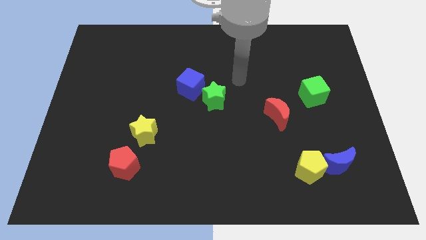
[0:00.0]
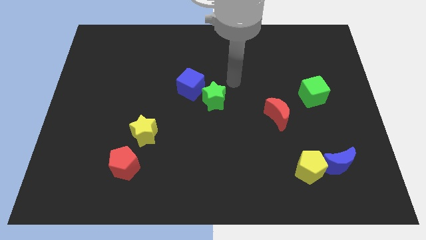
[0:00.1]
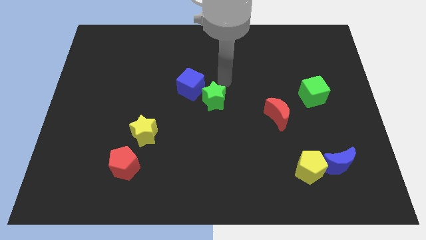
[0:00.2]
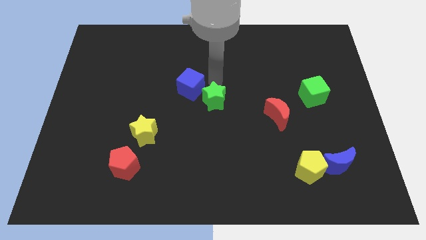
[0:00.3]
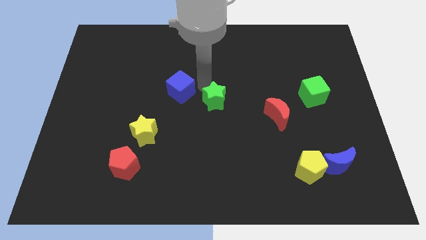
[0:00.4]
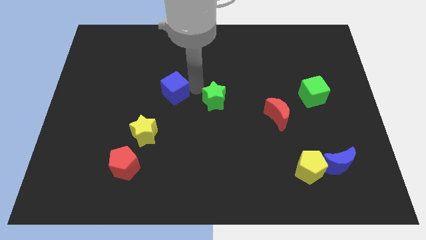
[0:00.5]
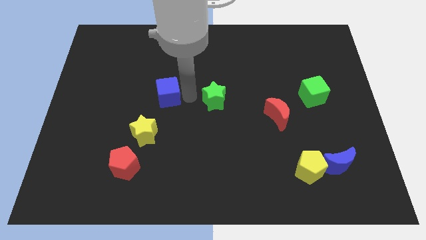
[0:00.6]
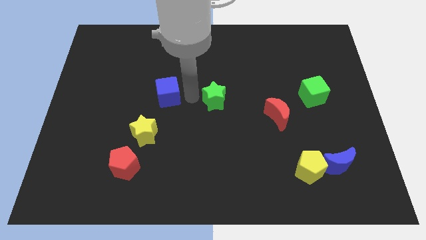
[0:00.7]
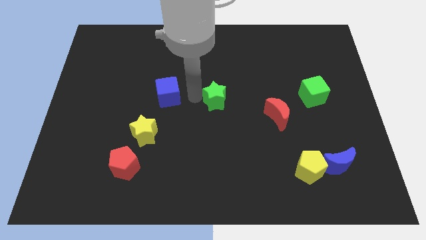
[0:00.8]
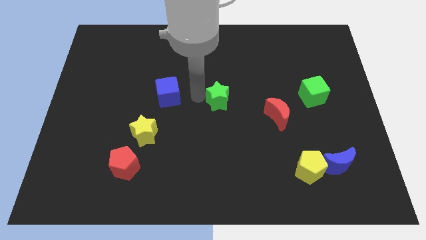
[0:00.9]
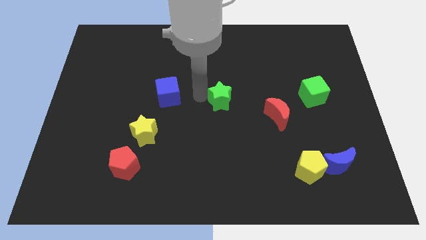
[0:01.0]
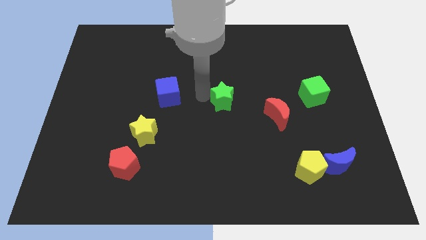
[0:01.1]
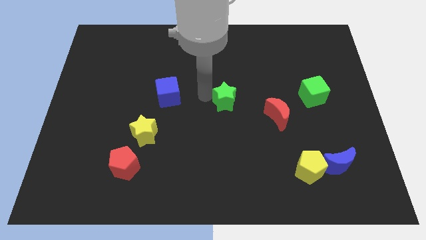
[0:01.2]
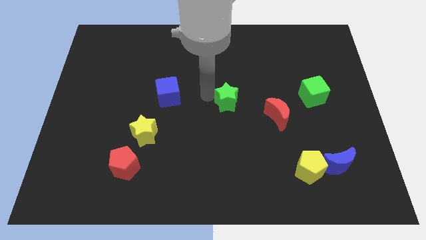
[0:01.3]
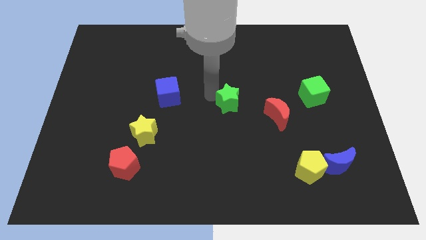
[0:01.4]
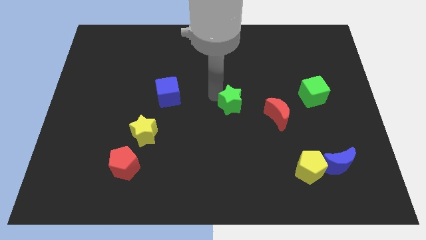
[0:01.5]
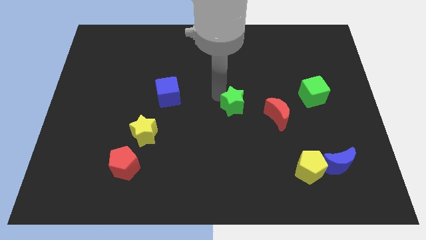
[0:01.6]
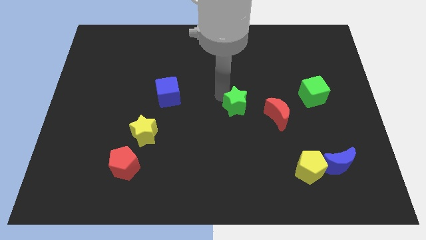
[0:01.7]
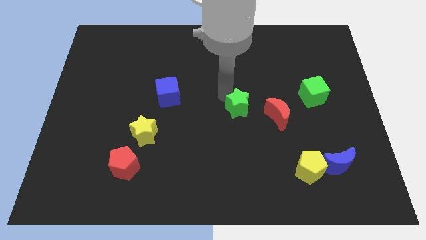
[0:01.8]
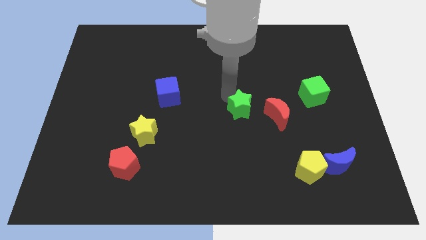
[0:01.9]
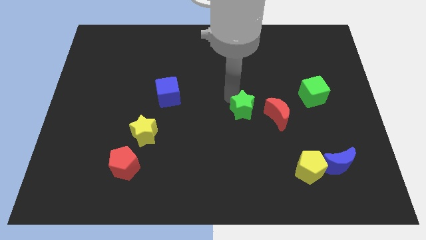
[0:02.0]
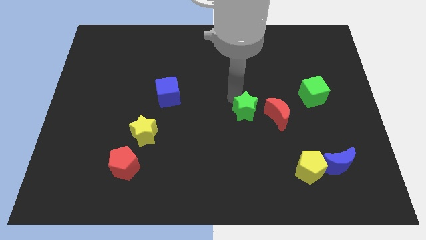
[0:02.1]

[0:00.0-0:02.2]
slightly slide the green star right

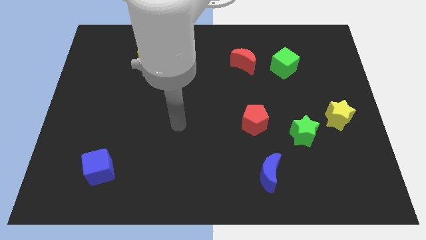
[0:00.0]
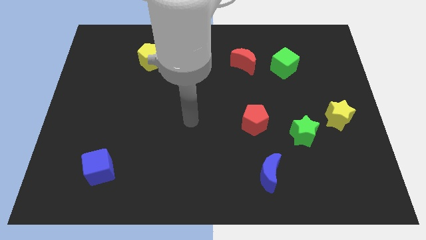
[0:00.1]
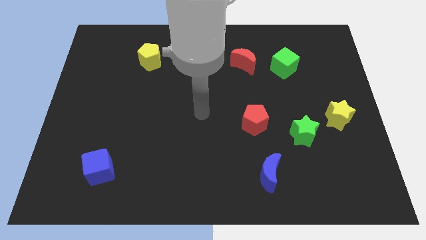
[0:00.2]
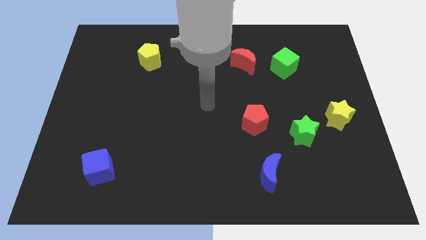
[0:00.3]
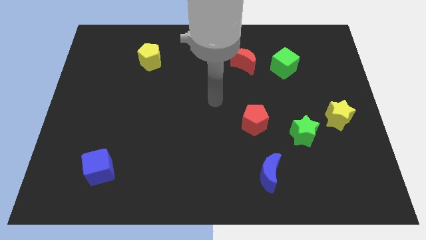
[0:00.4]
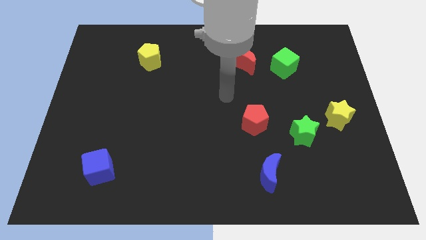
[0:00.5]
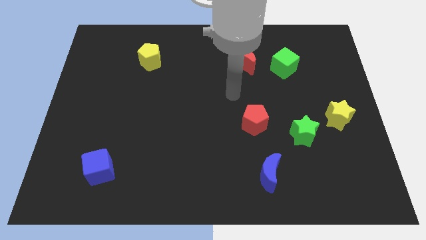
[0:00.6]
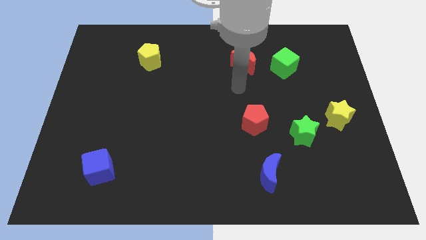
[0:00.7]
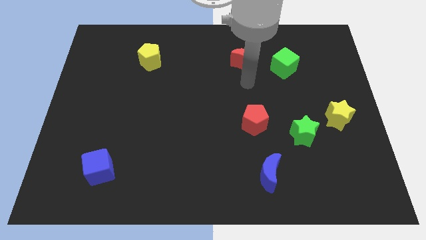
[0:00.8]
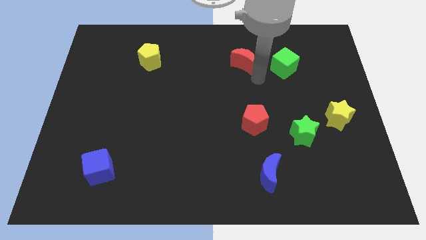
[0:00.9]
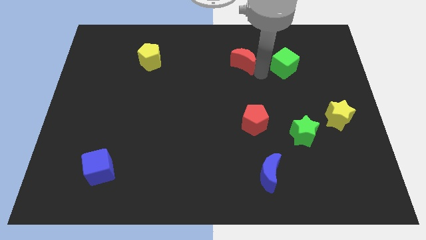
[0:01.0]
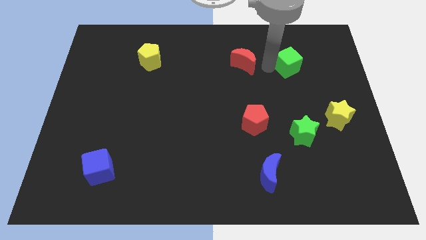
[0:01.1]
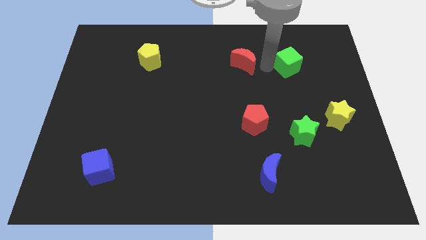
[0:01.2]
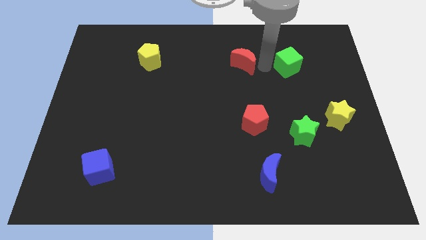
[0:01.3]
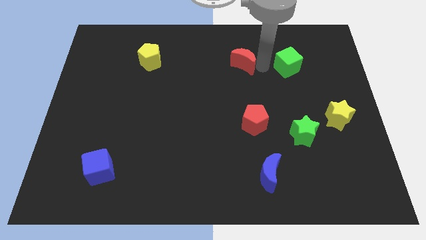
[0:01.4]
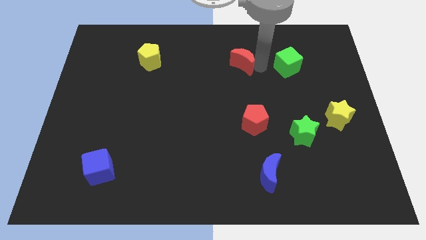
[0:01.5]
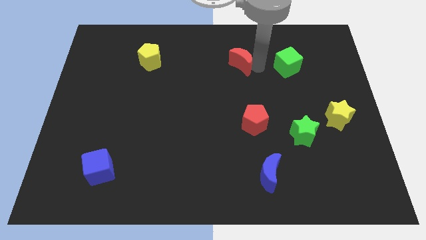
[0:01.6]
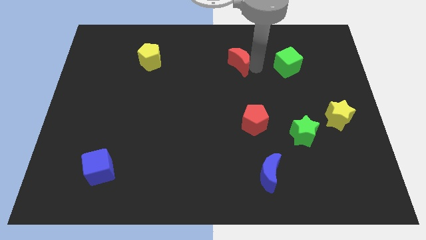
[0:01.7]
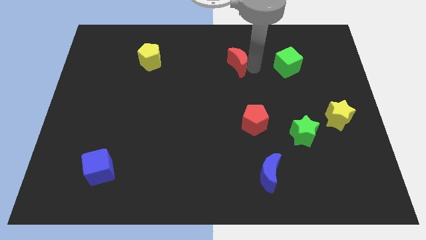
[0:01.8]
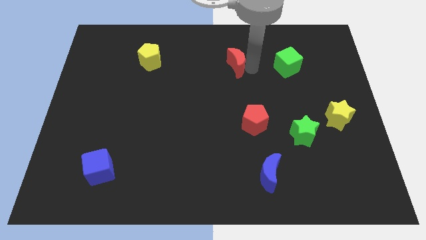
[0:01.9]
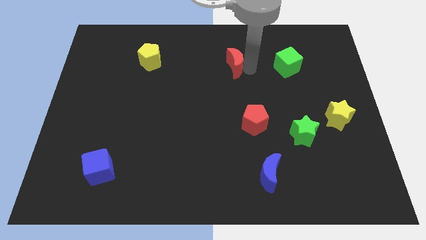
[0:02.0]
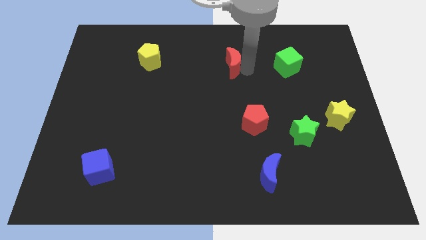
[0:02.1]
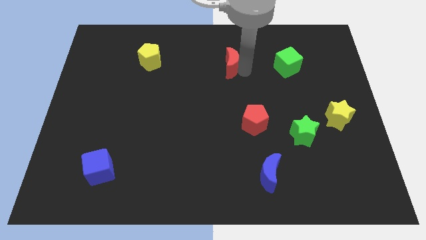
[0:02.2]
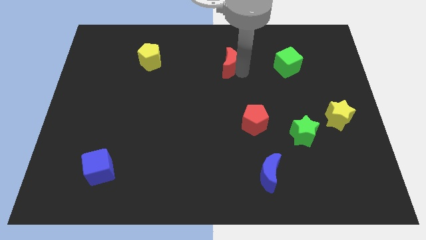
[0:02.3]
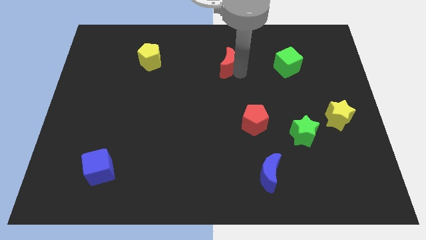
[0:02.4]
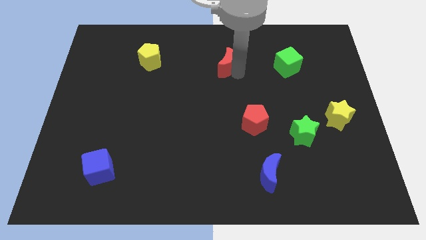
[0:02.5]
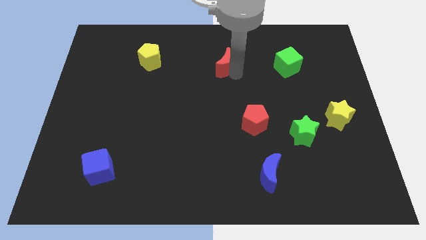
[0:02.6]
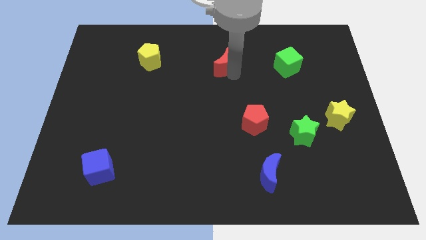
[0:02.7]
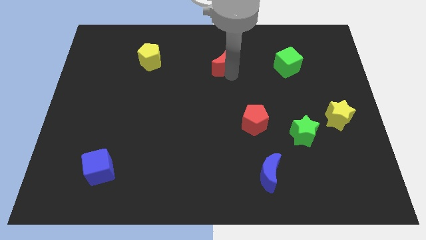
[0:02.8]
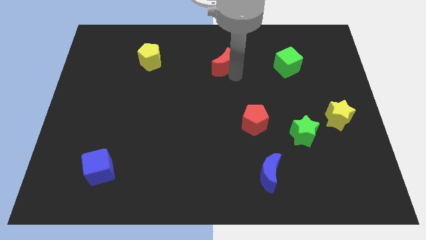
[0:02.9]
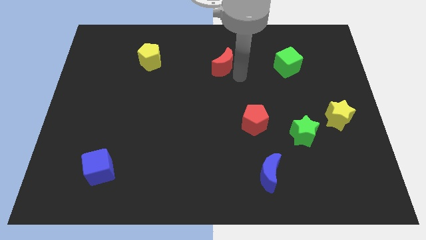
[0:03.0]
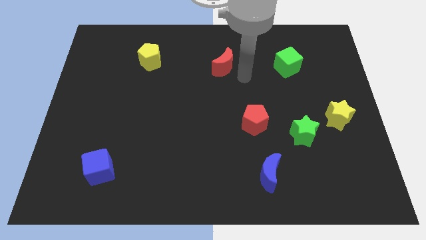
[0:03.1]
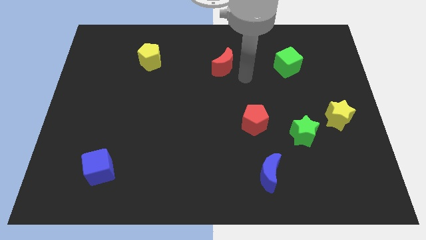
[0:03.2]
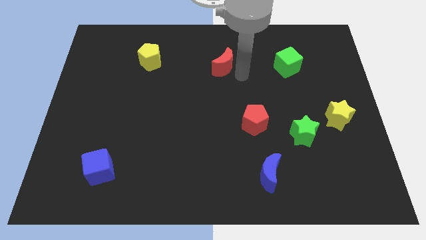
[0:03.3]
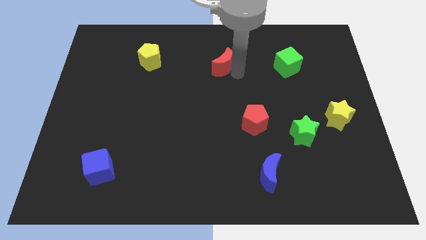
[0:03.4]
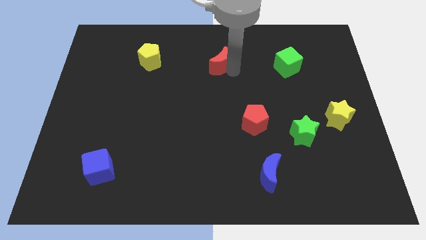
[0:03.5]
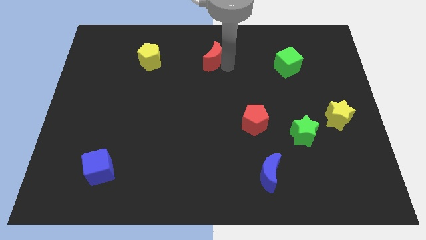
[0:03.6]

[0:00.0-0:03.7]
slightly slide the red moon to the left

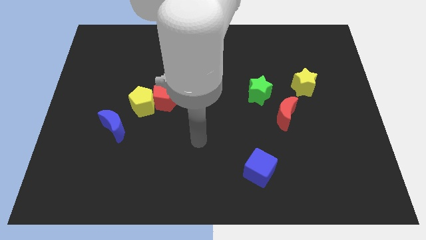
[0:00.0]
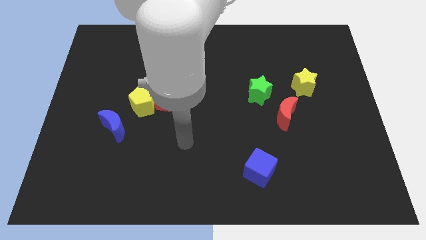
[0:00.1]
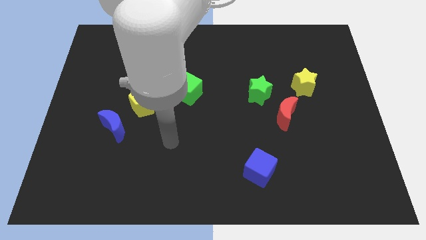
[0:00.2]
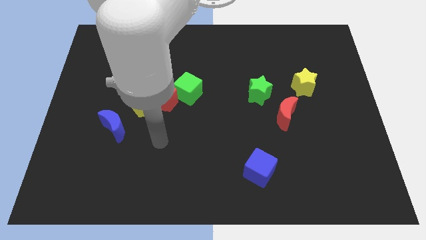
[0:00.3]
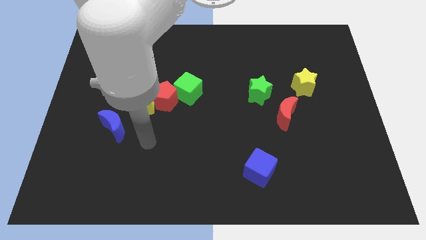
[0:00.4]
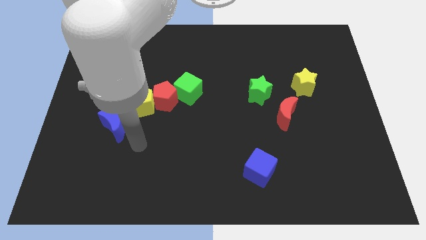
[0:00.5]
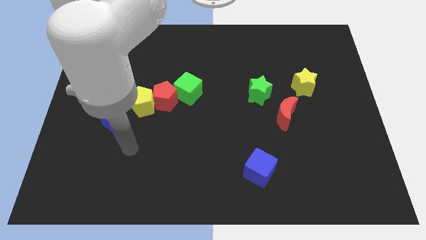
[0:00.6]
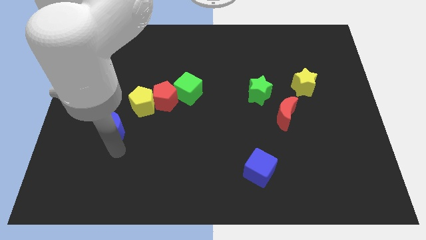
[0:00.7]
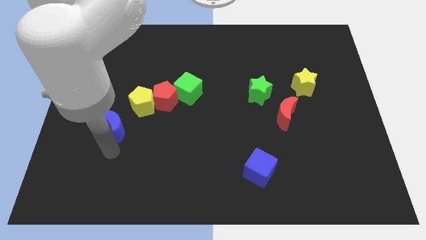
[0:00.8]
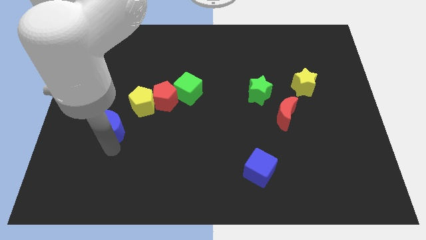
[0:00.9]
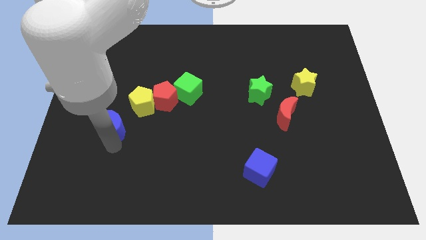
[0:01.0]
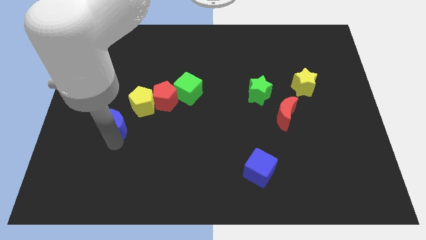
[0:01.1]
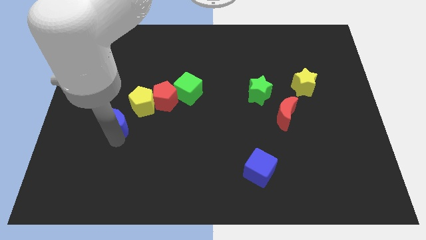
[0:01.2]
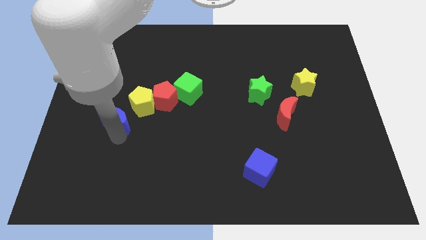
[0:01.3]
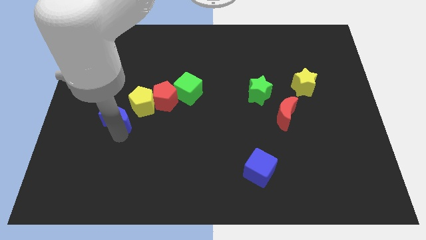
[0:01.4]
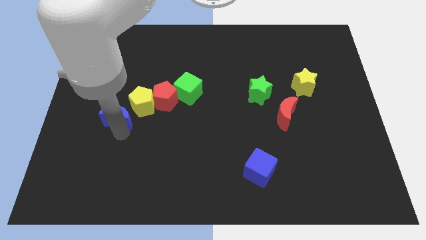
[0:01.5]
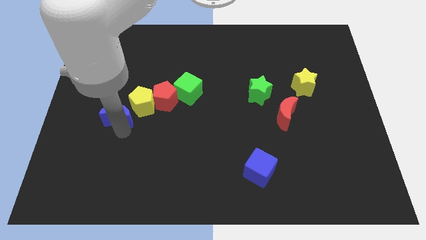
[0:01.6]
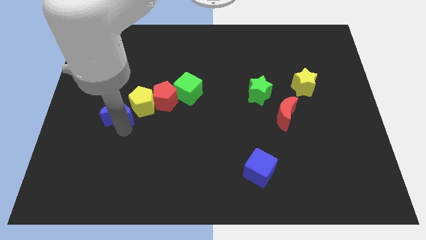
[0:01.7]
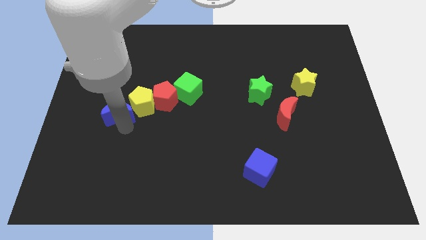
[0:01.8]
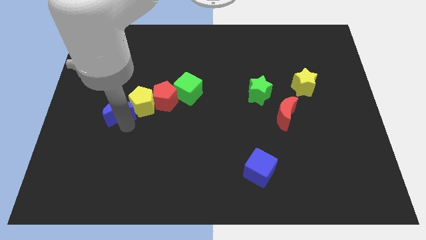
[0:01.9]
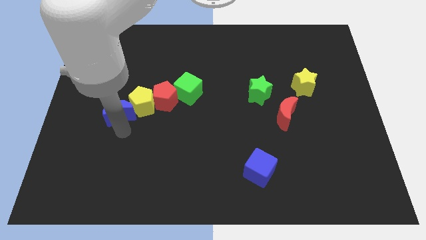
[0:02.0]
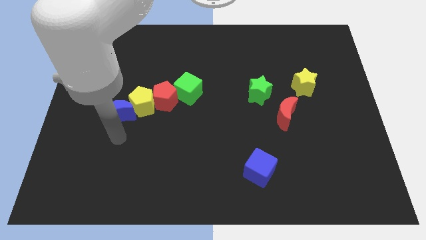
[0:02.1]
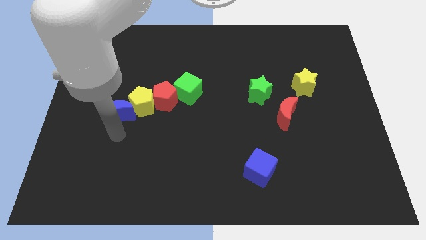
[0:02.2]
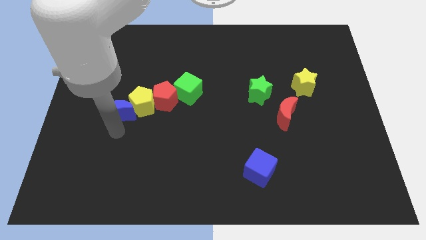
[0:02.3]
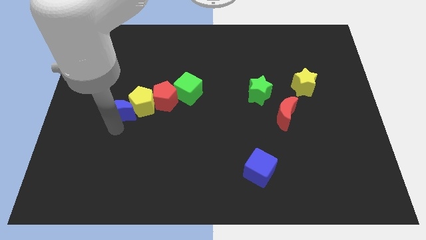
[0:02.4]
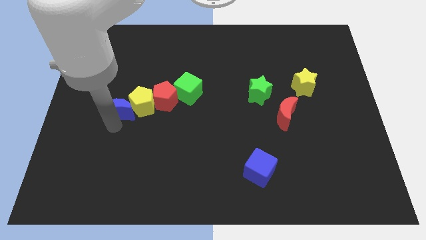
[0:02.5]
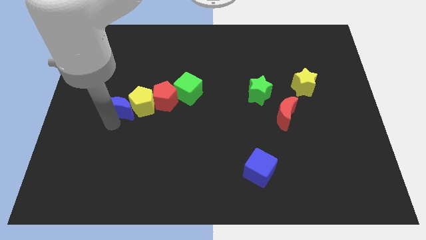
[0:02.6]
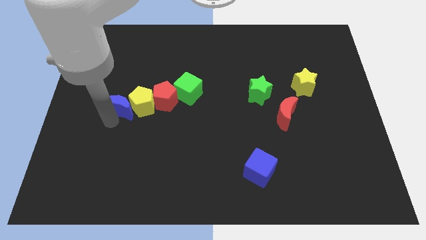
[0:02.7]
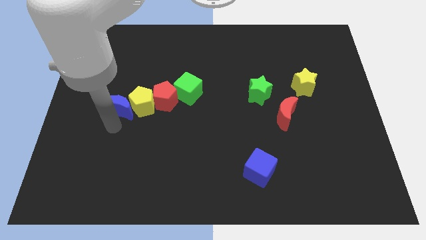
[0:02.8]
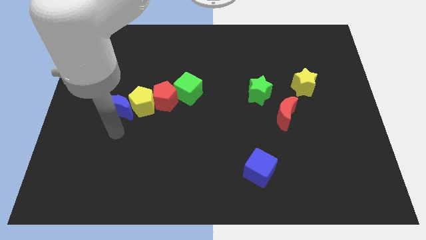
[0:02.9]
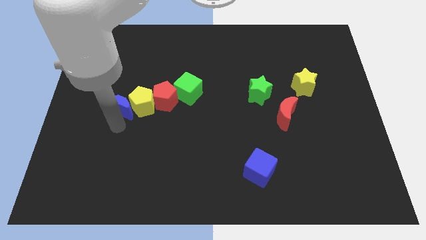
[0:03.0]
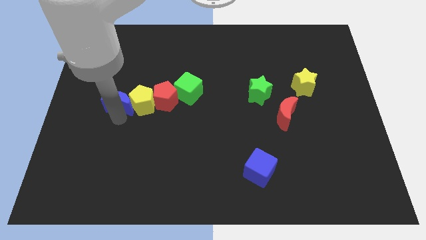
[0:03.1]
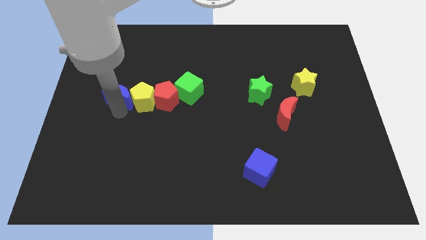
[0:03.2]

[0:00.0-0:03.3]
slightly move the blue moon up
